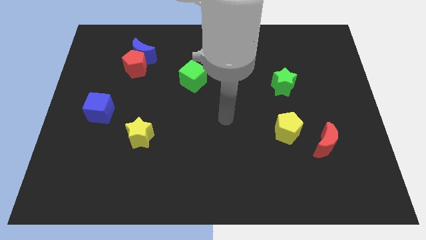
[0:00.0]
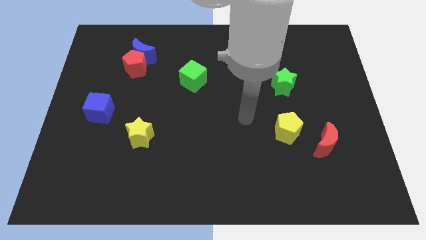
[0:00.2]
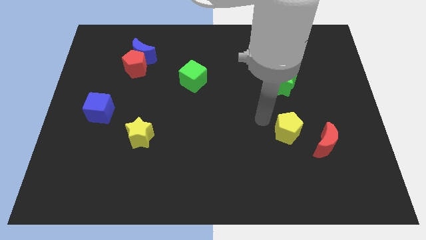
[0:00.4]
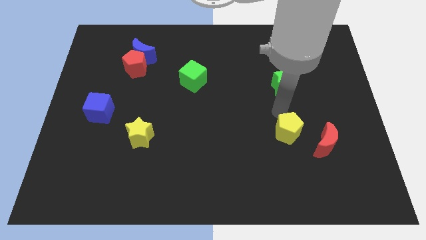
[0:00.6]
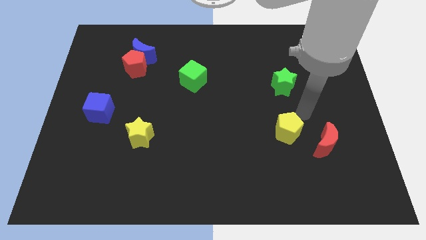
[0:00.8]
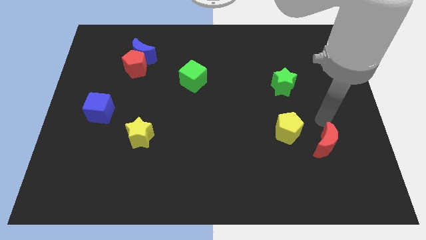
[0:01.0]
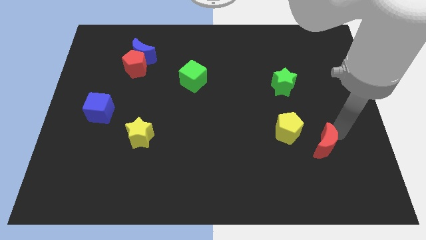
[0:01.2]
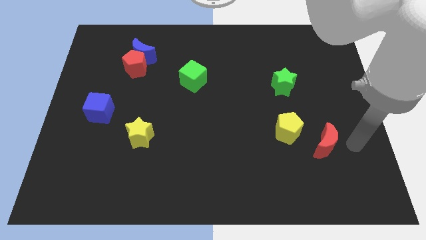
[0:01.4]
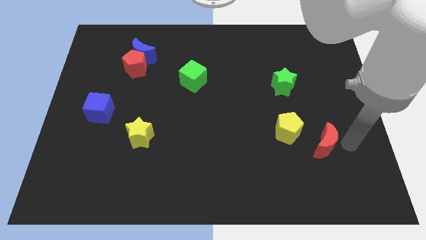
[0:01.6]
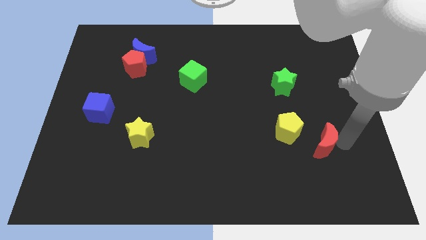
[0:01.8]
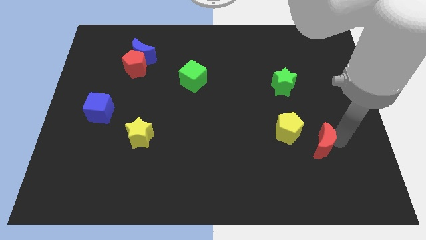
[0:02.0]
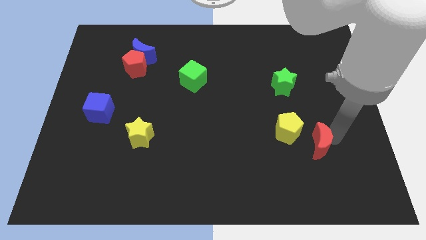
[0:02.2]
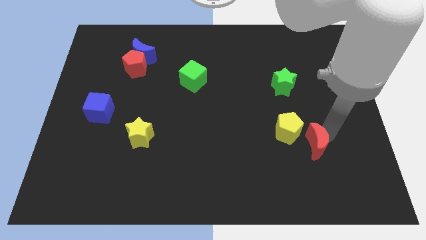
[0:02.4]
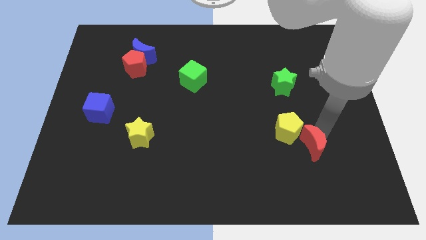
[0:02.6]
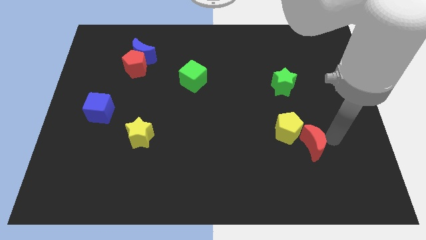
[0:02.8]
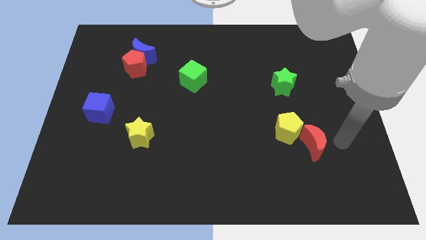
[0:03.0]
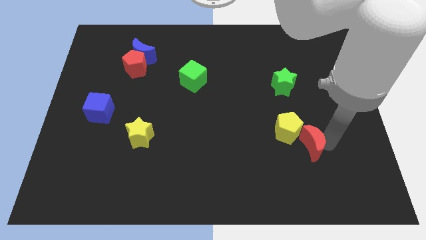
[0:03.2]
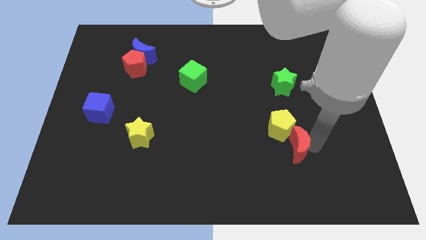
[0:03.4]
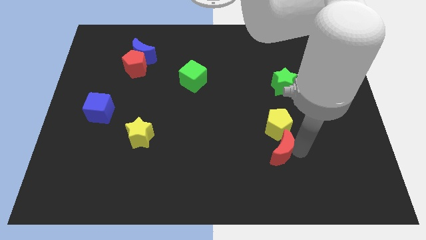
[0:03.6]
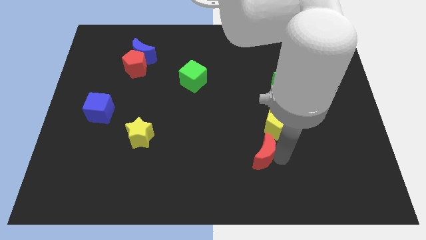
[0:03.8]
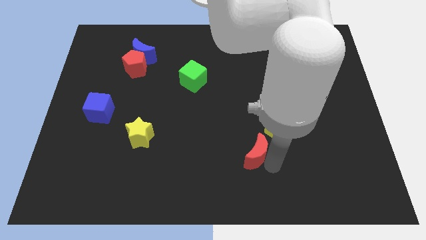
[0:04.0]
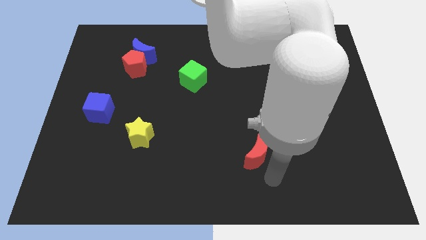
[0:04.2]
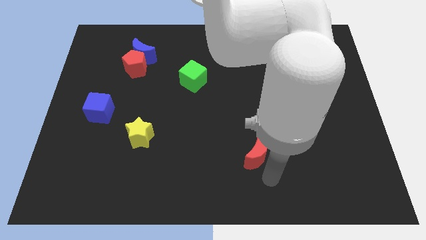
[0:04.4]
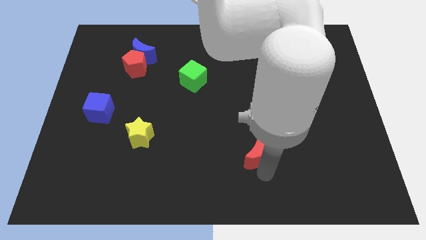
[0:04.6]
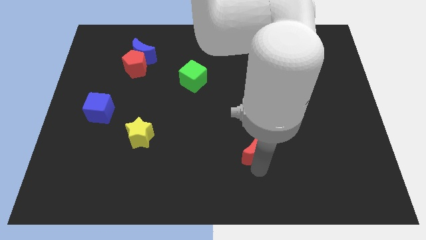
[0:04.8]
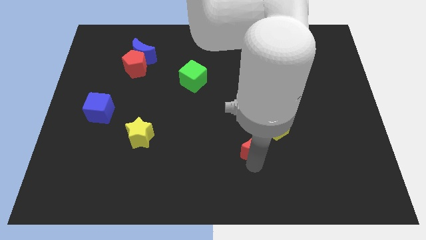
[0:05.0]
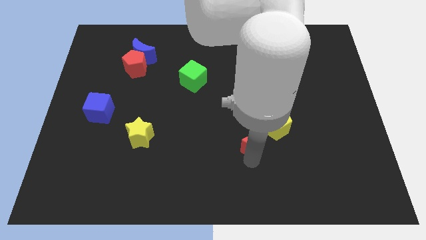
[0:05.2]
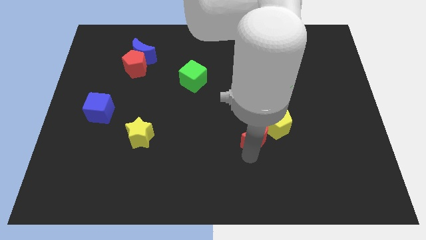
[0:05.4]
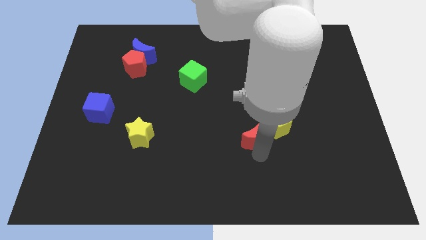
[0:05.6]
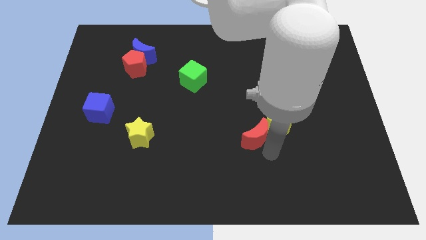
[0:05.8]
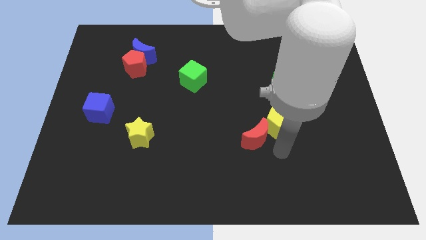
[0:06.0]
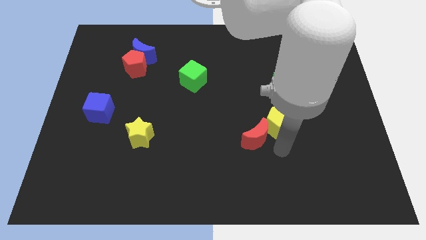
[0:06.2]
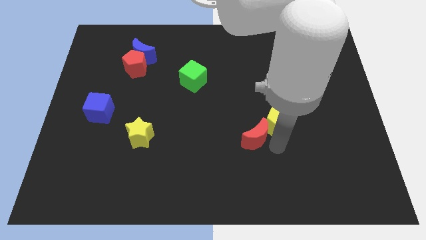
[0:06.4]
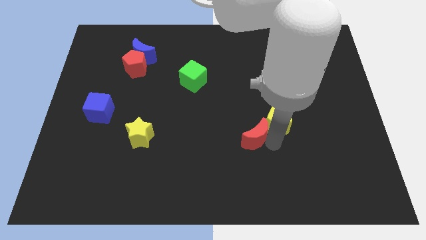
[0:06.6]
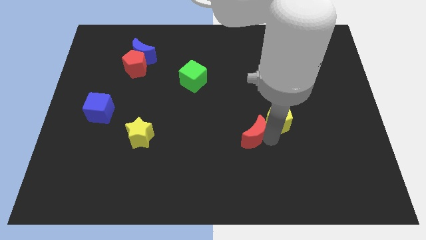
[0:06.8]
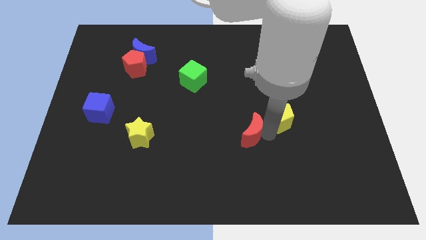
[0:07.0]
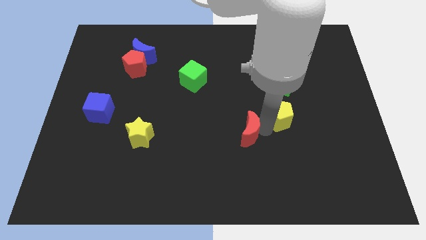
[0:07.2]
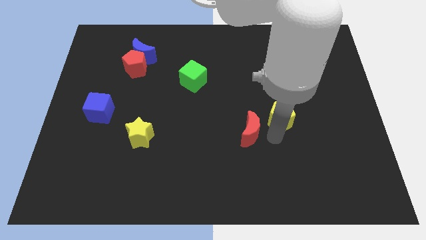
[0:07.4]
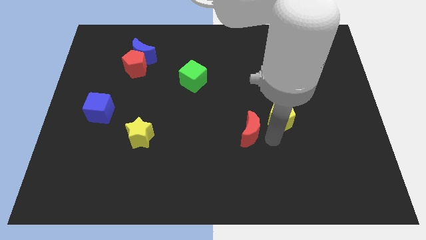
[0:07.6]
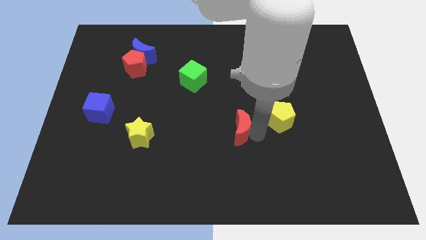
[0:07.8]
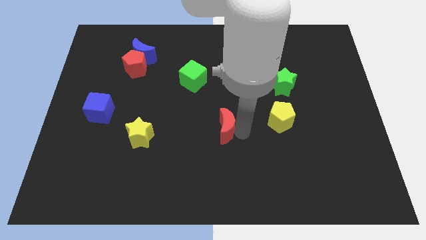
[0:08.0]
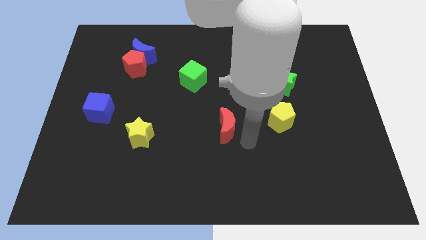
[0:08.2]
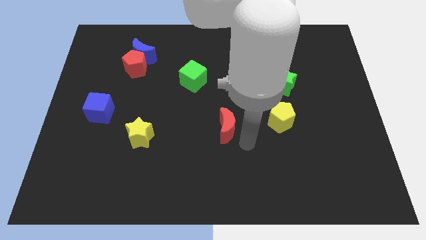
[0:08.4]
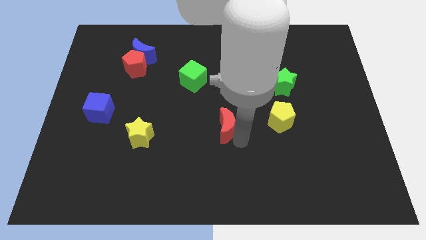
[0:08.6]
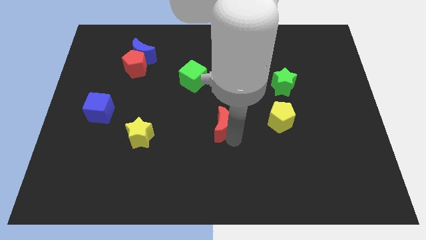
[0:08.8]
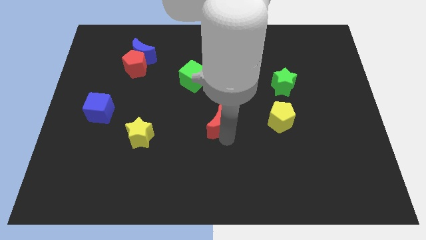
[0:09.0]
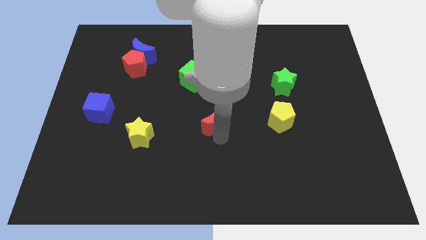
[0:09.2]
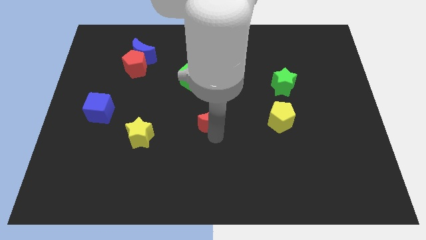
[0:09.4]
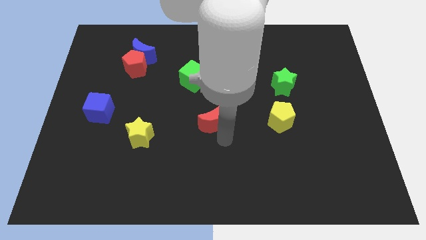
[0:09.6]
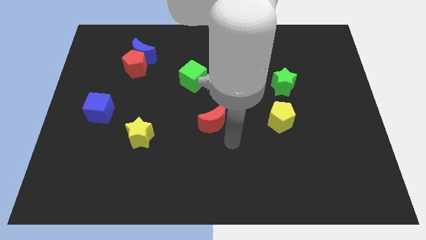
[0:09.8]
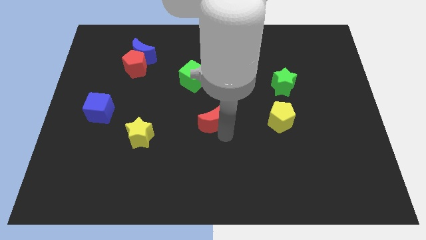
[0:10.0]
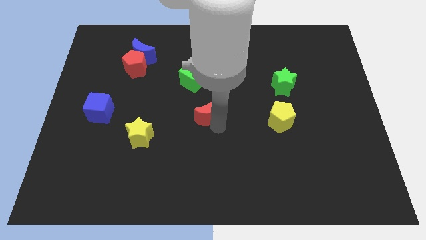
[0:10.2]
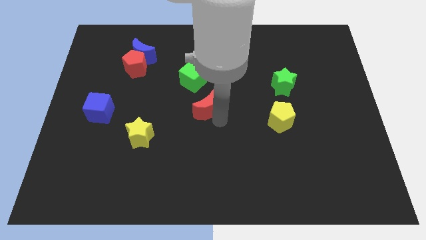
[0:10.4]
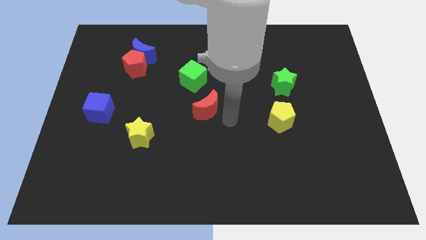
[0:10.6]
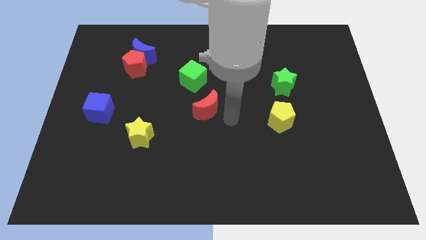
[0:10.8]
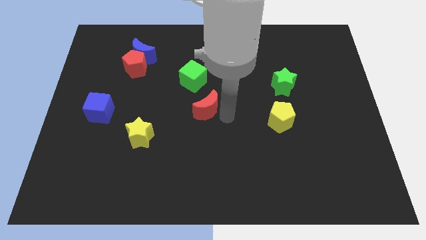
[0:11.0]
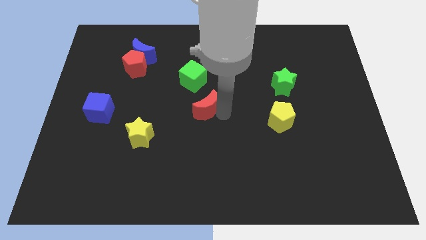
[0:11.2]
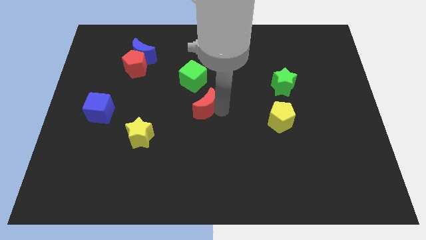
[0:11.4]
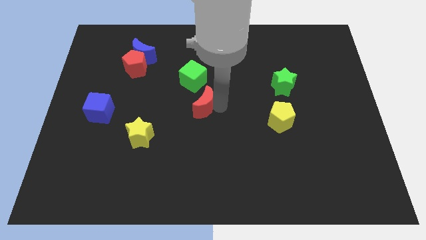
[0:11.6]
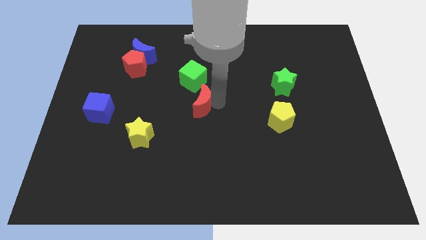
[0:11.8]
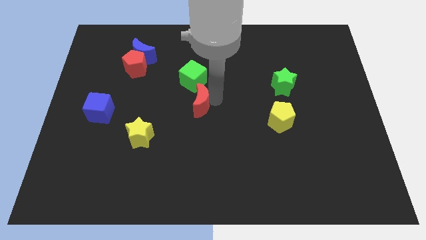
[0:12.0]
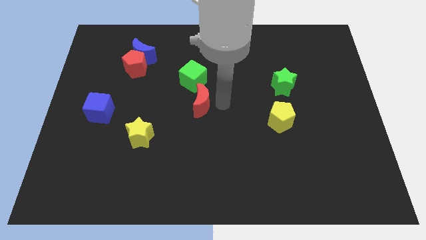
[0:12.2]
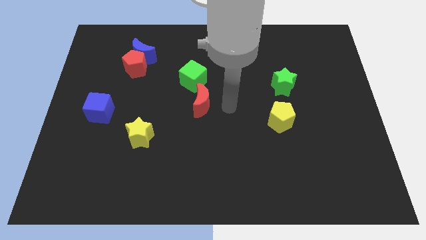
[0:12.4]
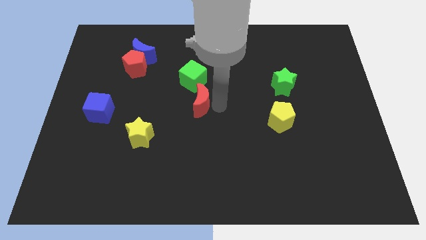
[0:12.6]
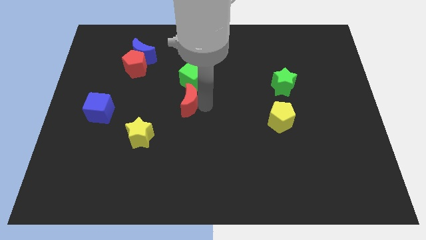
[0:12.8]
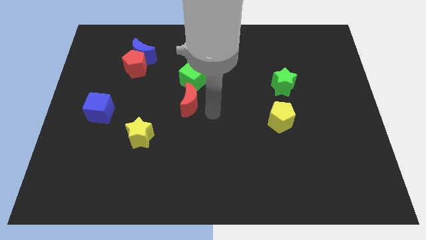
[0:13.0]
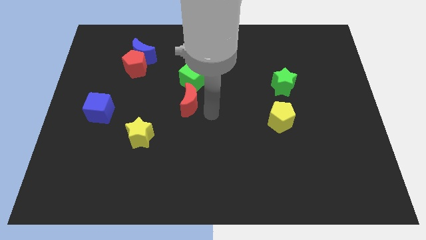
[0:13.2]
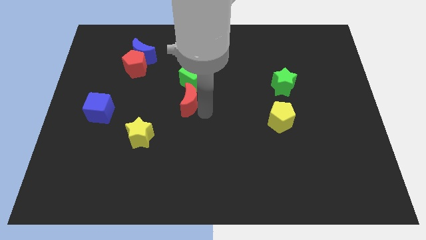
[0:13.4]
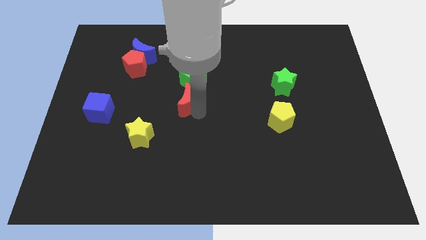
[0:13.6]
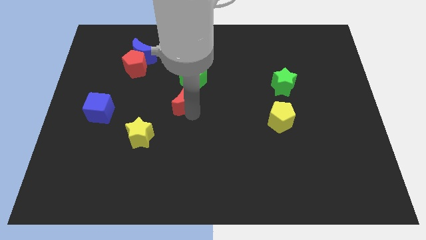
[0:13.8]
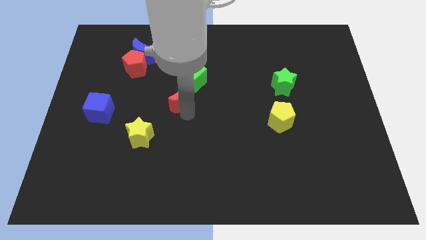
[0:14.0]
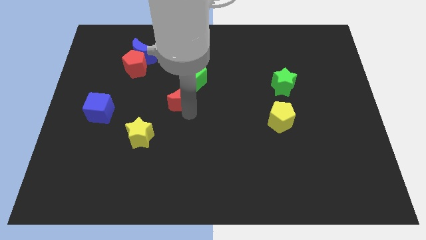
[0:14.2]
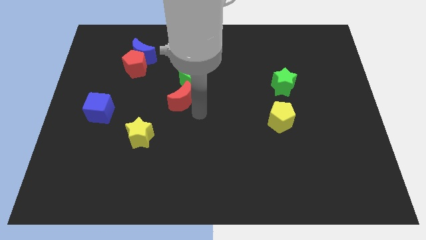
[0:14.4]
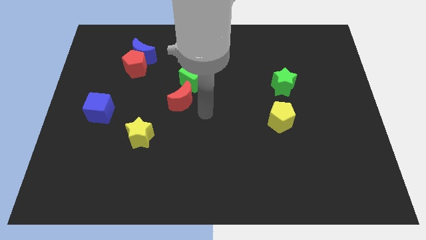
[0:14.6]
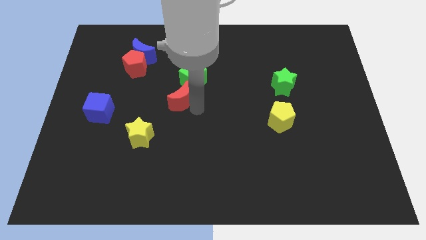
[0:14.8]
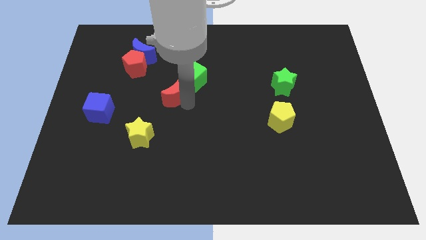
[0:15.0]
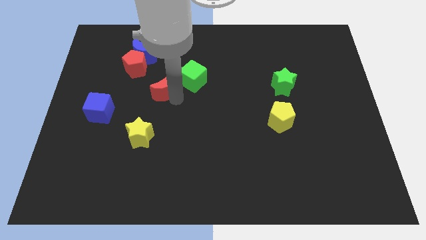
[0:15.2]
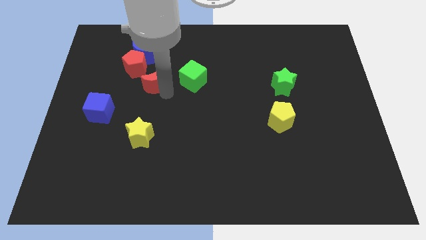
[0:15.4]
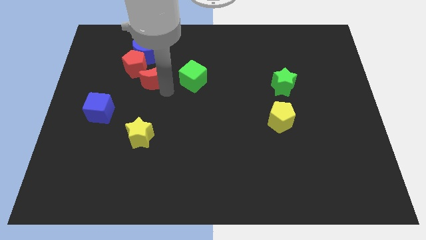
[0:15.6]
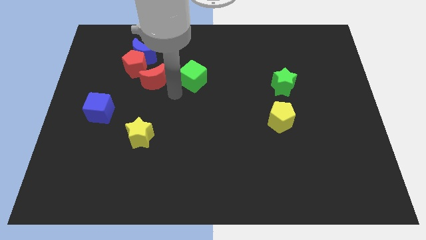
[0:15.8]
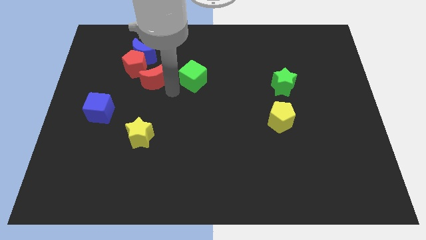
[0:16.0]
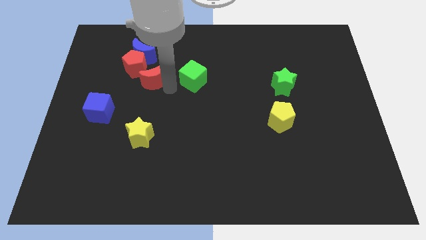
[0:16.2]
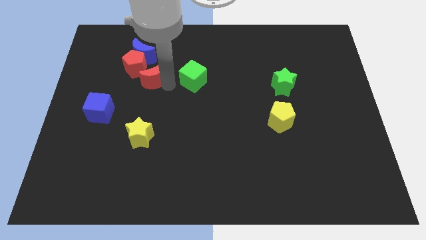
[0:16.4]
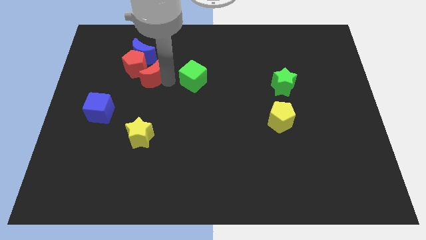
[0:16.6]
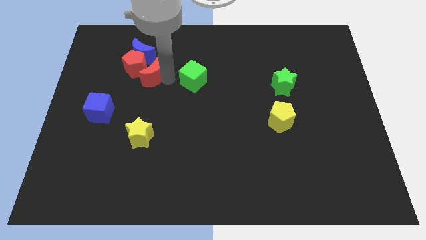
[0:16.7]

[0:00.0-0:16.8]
slide the red moon next to the red pentagon
